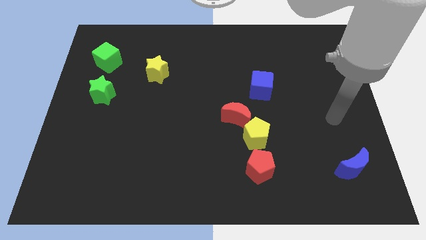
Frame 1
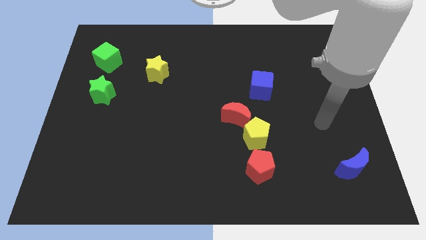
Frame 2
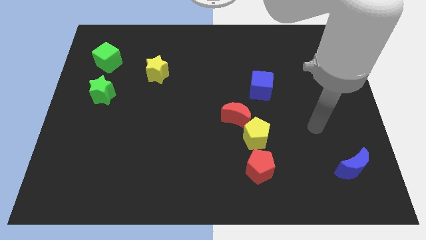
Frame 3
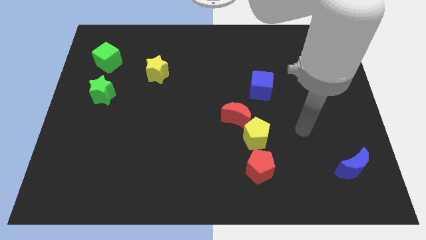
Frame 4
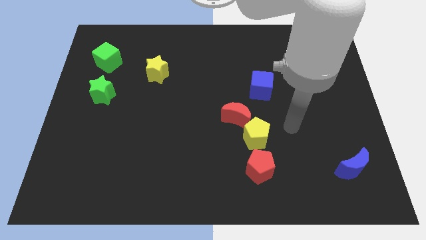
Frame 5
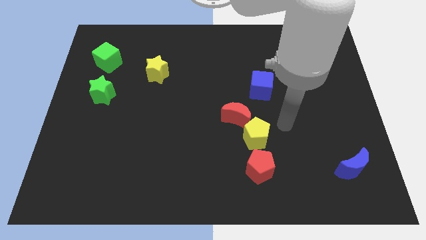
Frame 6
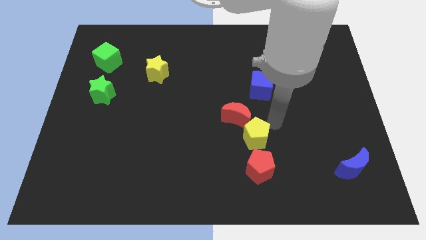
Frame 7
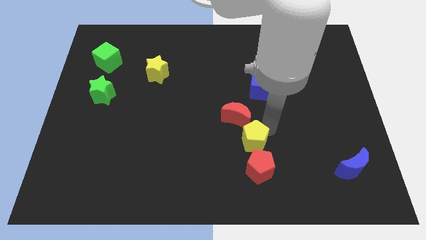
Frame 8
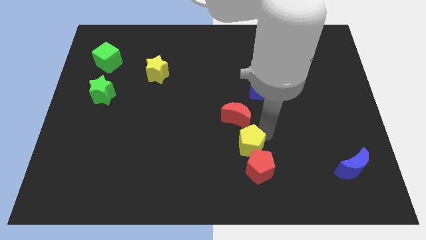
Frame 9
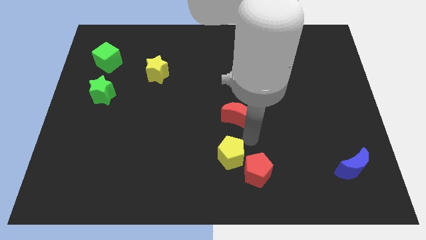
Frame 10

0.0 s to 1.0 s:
separate the red moon from the yellow pentagon

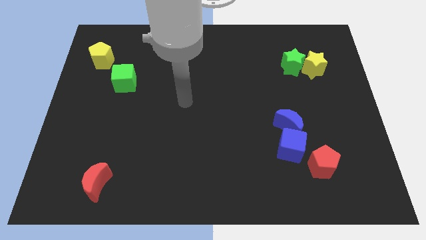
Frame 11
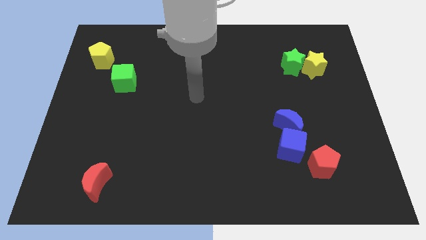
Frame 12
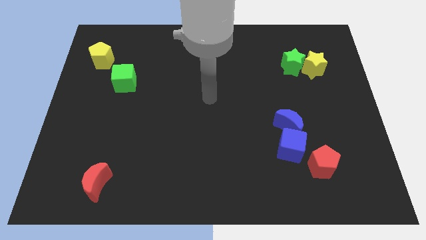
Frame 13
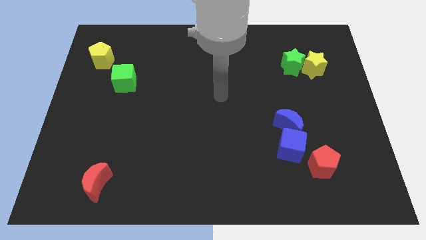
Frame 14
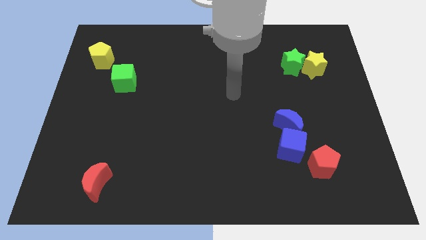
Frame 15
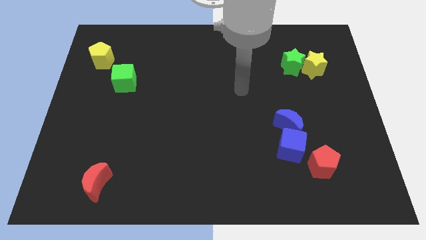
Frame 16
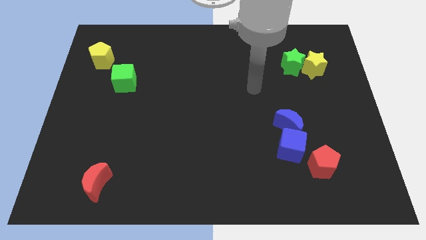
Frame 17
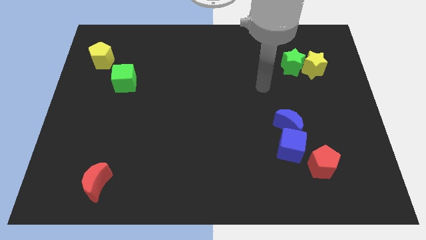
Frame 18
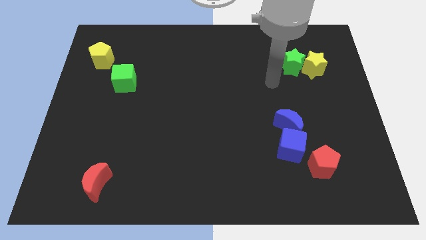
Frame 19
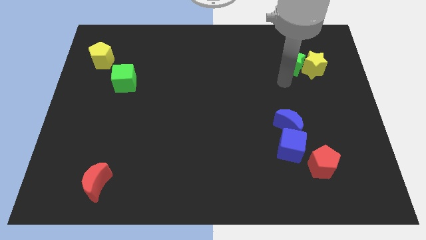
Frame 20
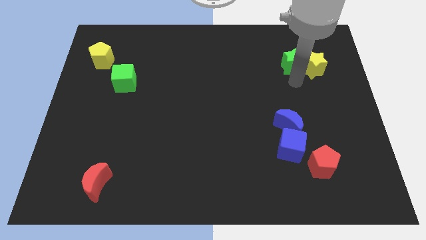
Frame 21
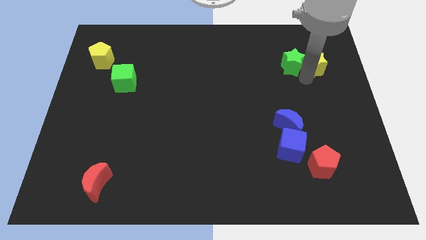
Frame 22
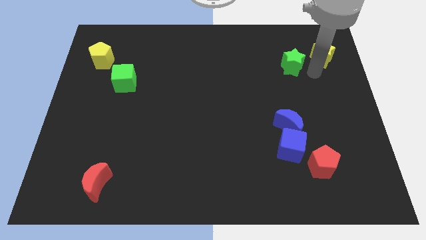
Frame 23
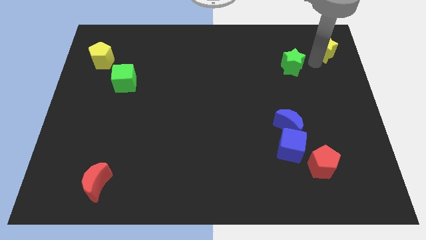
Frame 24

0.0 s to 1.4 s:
pull the green star apart from the yellow star

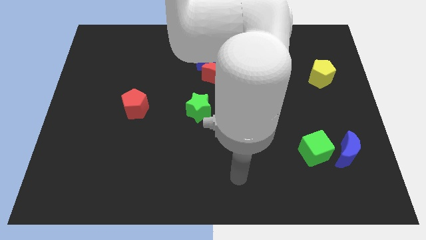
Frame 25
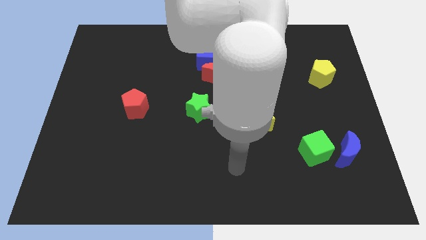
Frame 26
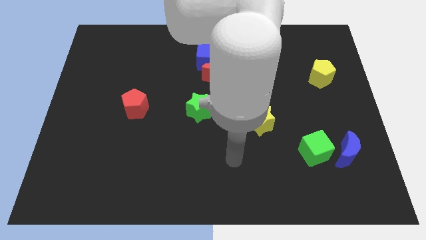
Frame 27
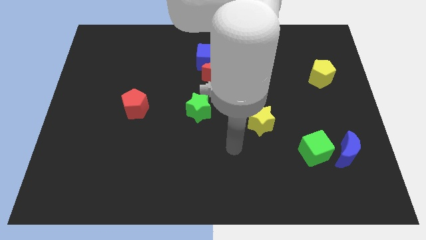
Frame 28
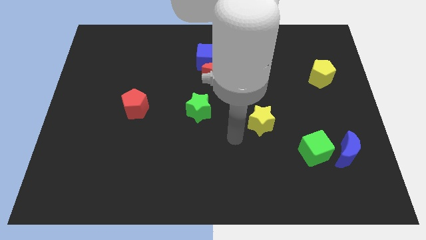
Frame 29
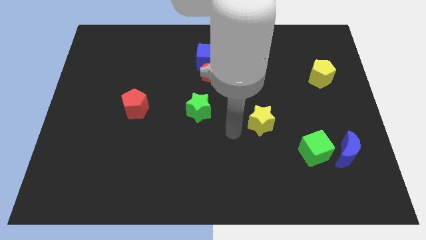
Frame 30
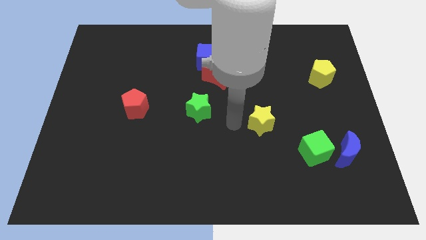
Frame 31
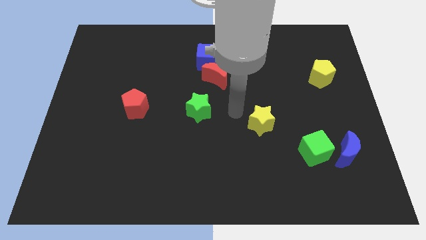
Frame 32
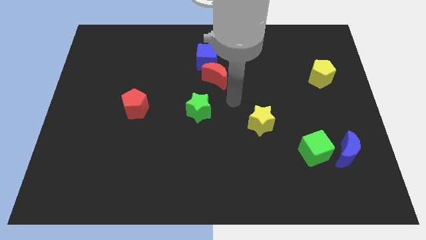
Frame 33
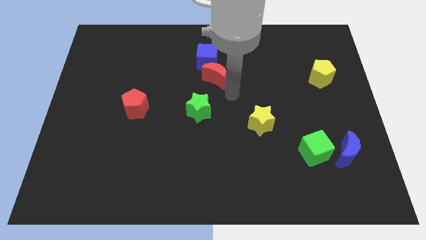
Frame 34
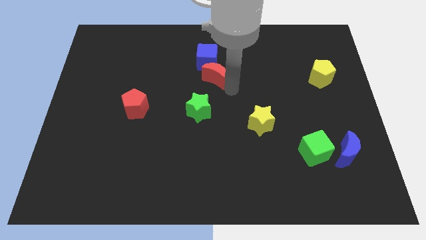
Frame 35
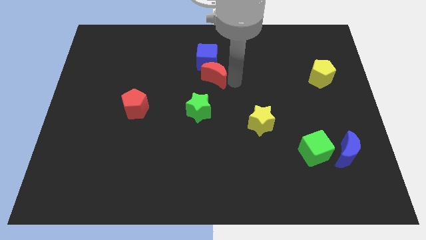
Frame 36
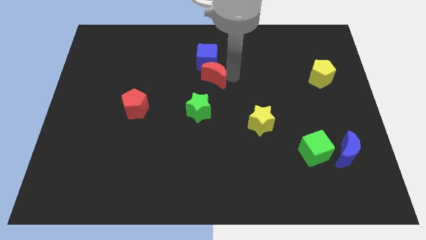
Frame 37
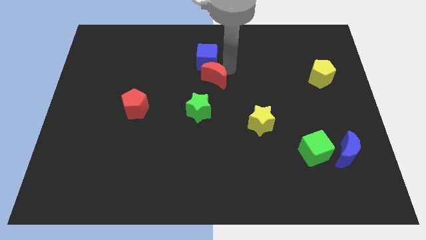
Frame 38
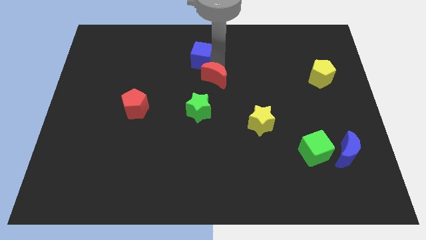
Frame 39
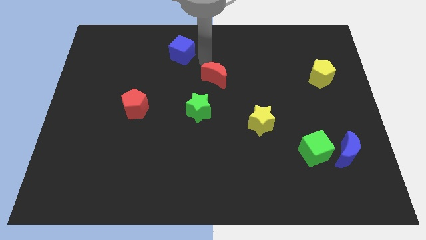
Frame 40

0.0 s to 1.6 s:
separate the red moon from the blue cube

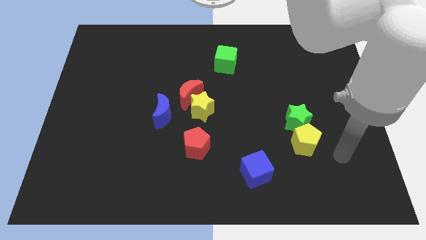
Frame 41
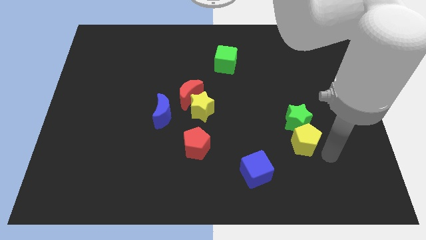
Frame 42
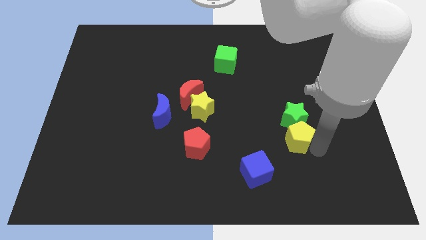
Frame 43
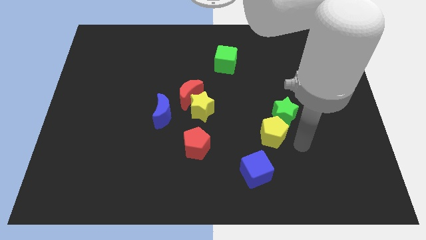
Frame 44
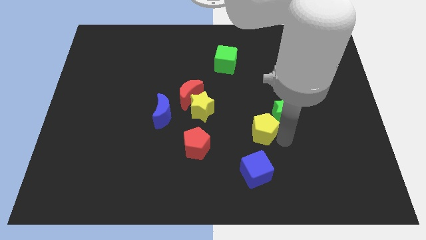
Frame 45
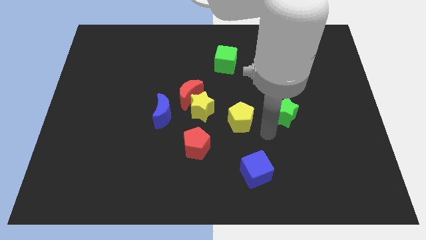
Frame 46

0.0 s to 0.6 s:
move the green star away from the yellow pentagon

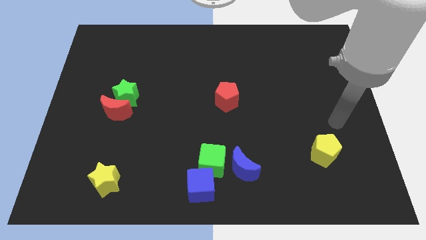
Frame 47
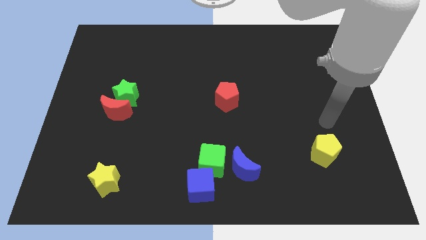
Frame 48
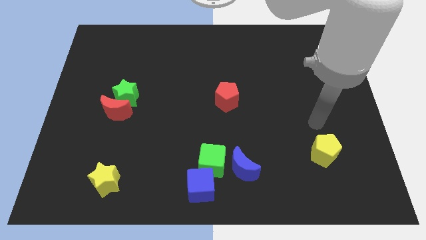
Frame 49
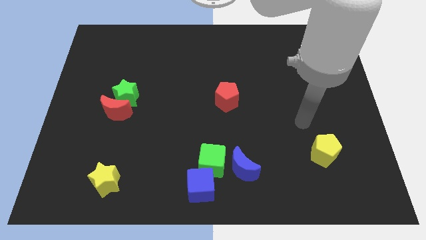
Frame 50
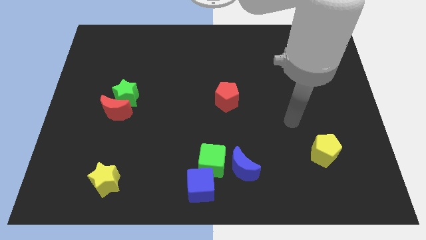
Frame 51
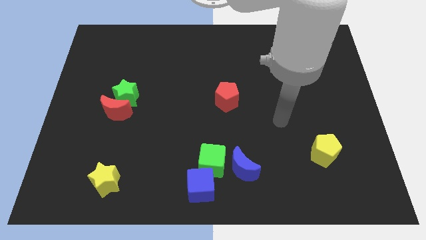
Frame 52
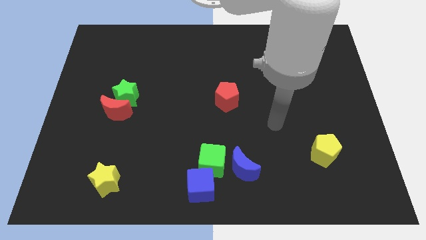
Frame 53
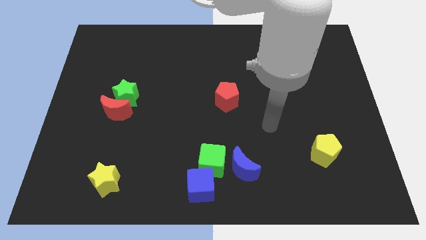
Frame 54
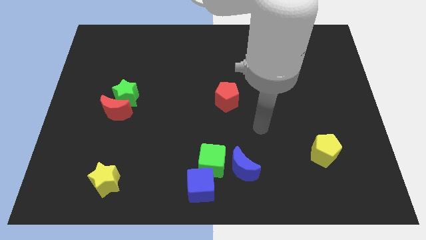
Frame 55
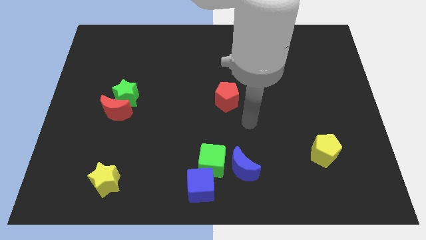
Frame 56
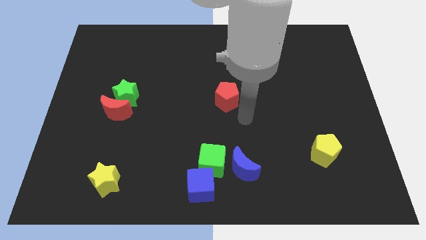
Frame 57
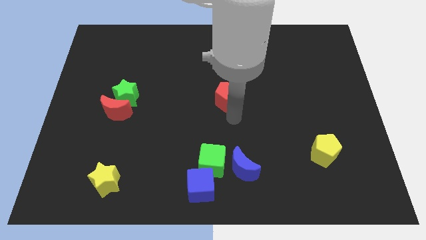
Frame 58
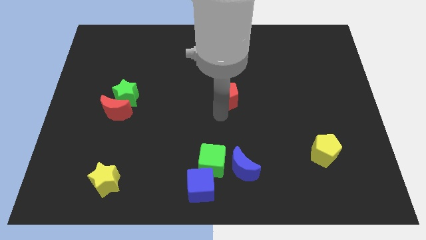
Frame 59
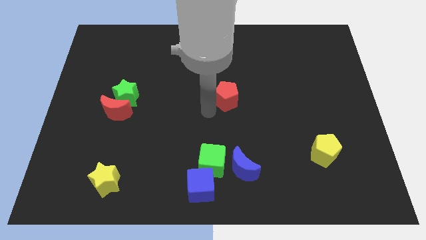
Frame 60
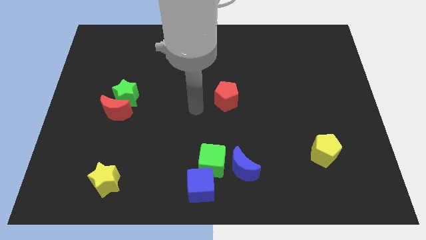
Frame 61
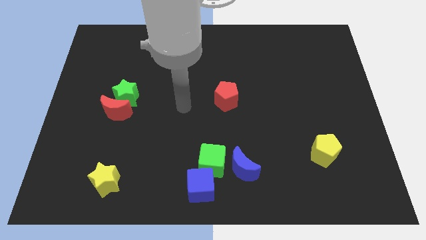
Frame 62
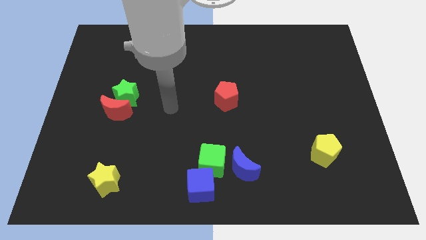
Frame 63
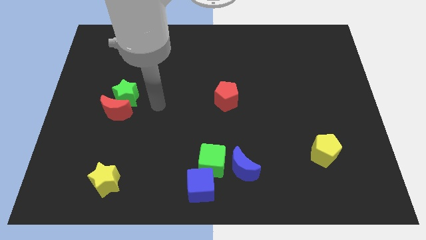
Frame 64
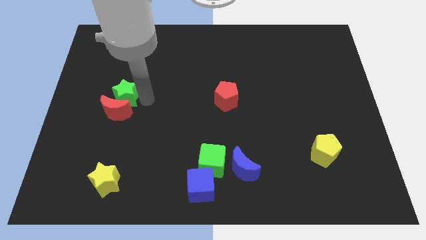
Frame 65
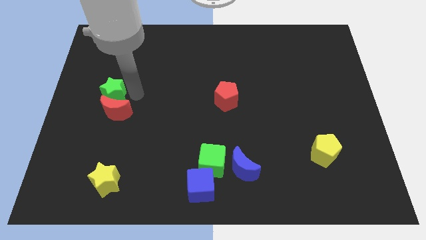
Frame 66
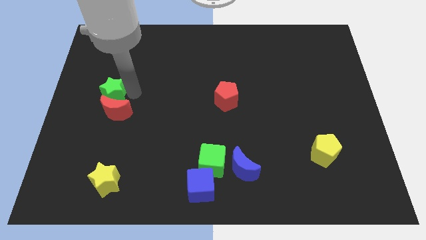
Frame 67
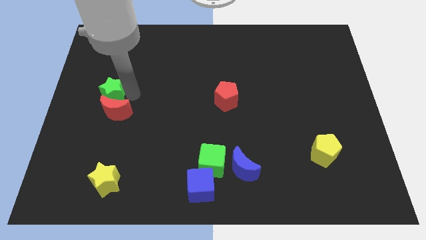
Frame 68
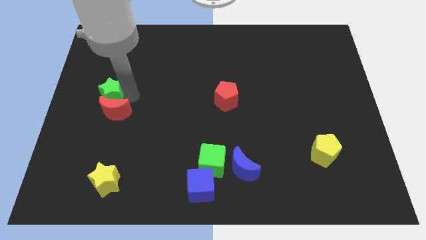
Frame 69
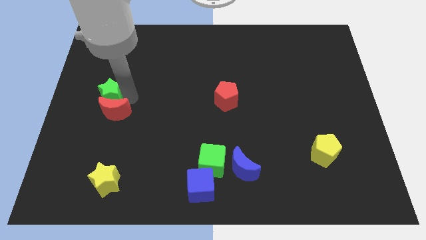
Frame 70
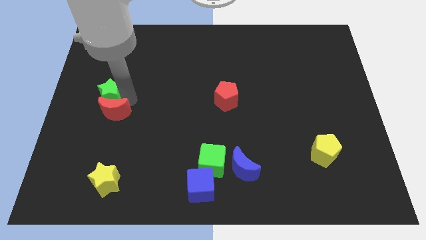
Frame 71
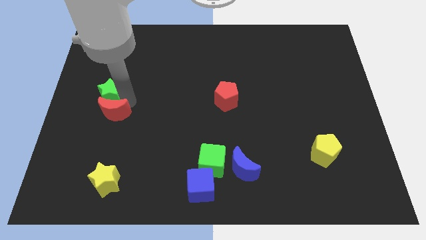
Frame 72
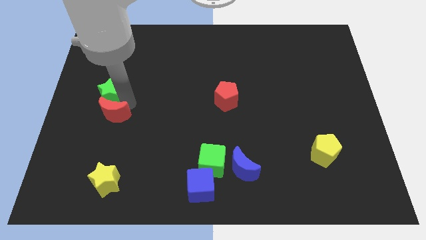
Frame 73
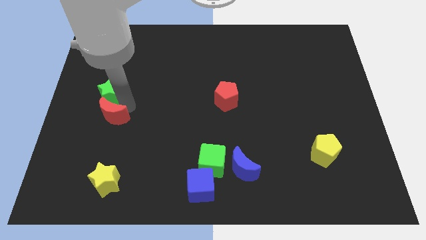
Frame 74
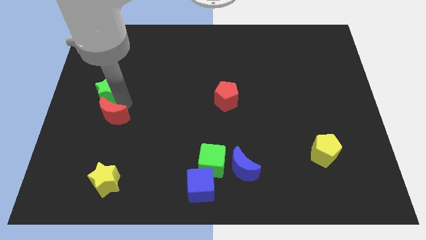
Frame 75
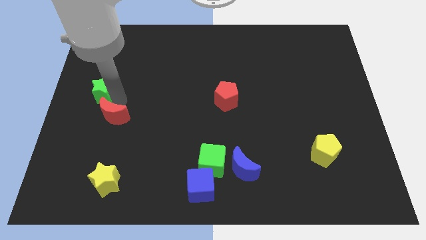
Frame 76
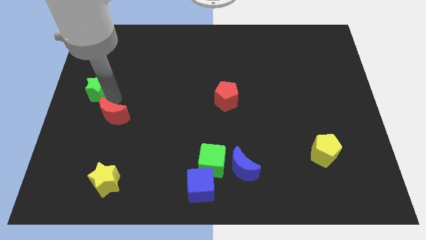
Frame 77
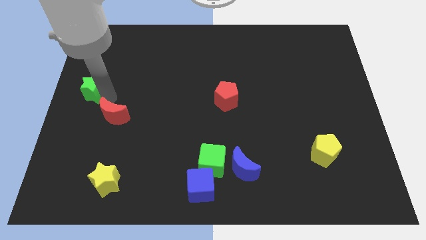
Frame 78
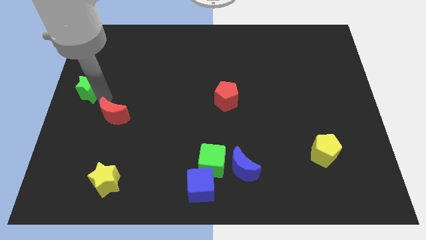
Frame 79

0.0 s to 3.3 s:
pull the red moon apart from the green star

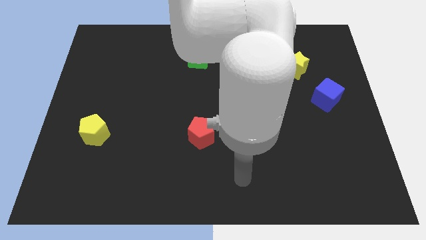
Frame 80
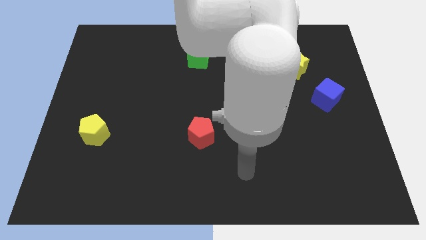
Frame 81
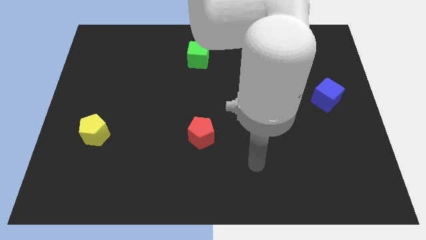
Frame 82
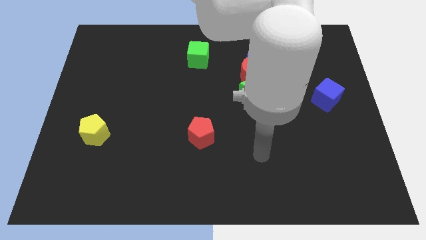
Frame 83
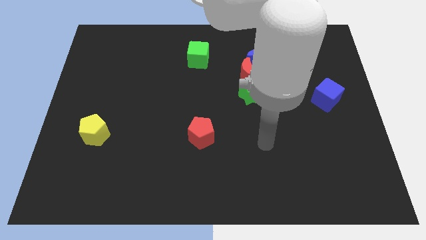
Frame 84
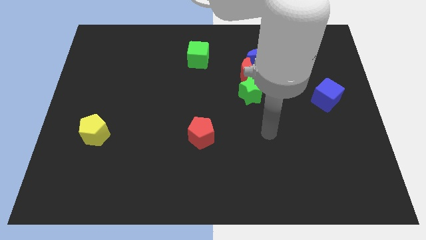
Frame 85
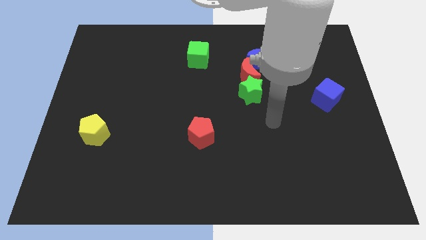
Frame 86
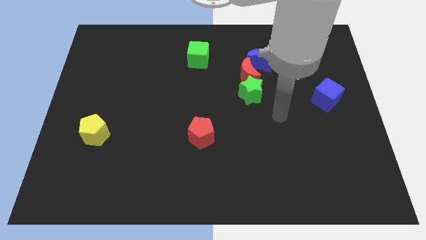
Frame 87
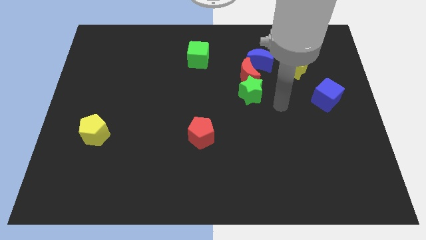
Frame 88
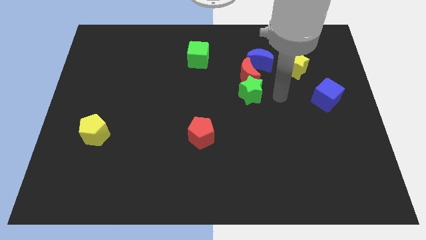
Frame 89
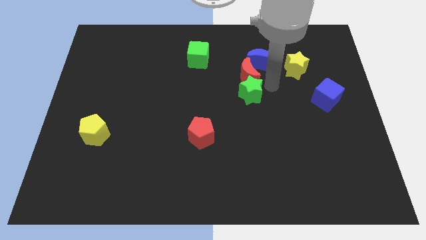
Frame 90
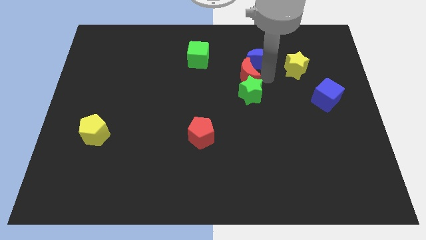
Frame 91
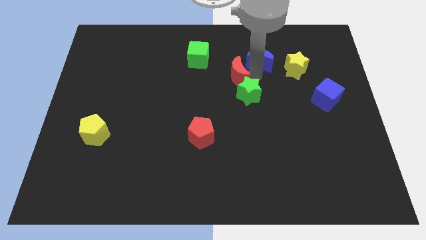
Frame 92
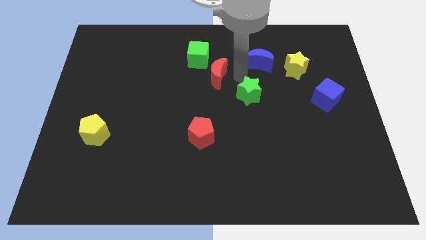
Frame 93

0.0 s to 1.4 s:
move the green star away from the red moon
